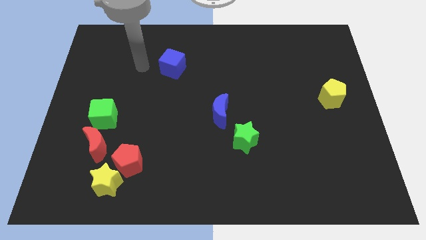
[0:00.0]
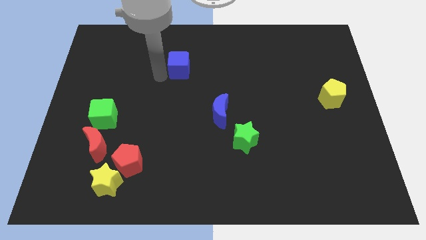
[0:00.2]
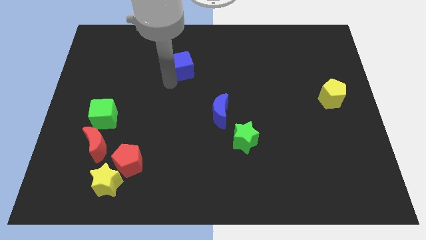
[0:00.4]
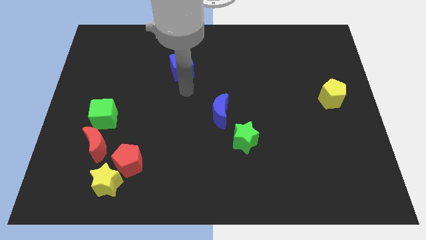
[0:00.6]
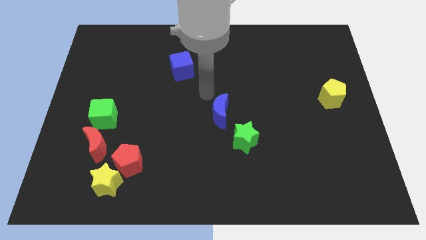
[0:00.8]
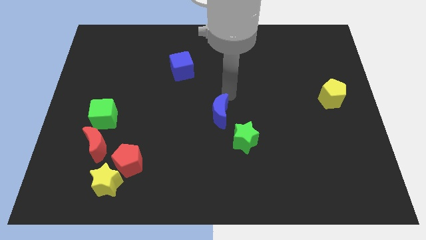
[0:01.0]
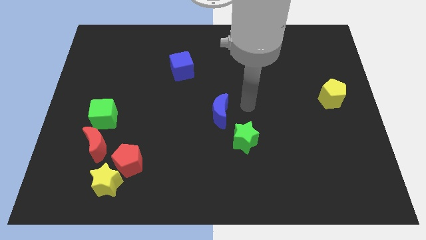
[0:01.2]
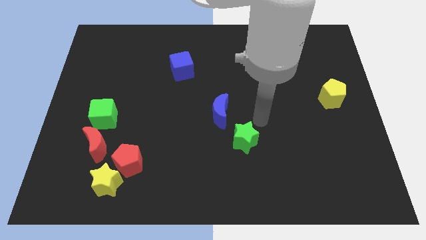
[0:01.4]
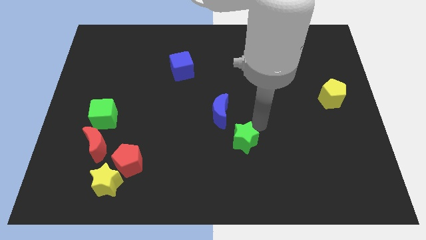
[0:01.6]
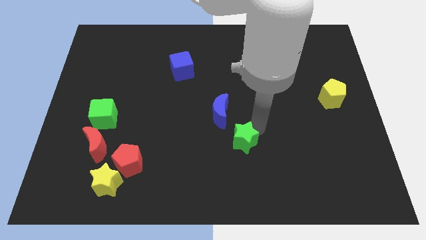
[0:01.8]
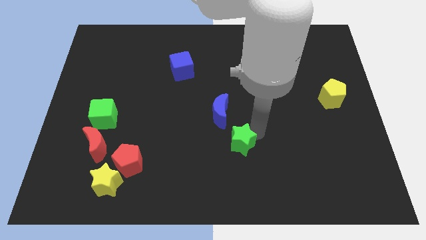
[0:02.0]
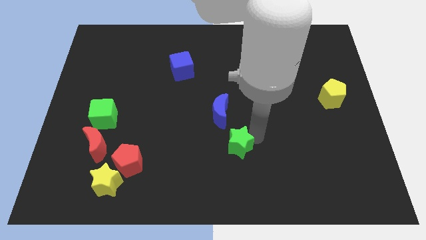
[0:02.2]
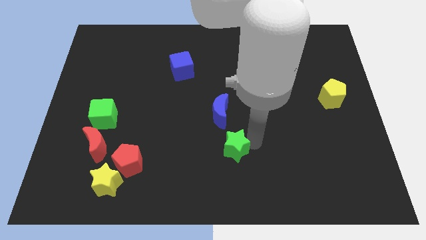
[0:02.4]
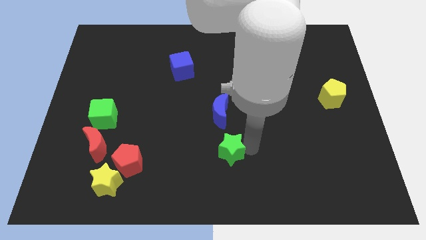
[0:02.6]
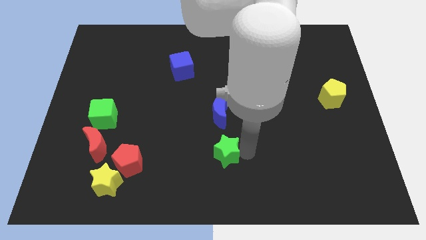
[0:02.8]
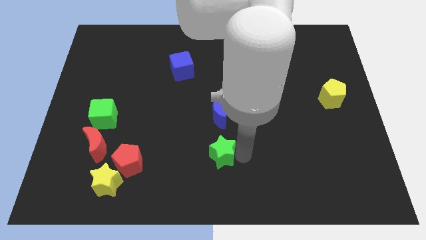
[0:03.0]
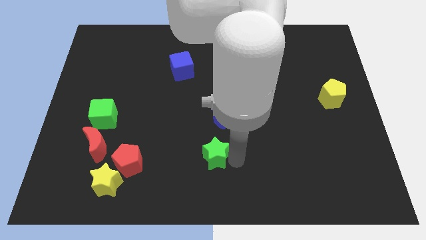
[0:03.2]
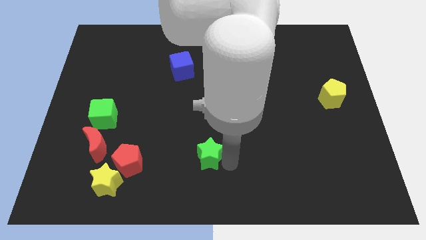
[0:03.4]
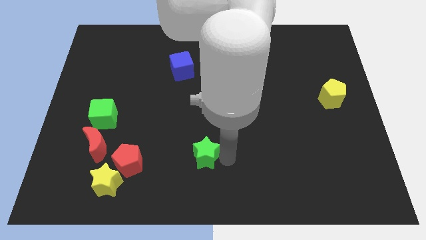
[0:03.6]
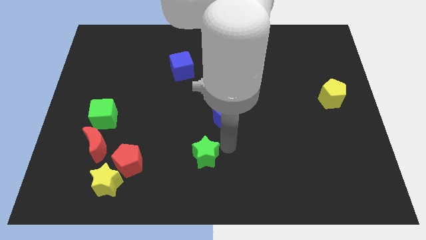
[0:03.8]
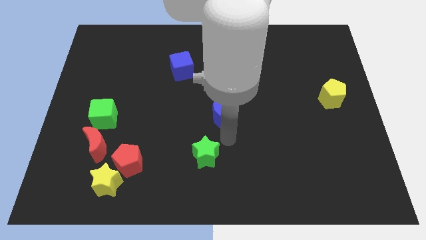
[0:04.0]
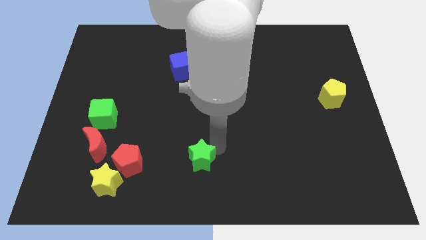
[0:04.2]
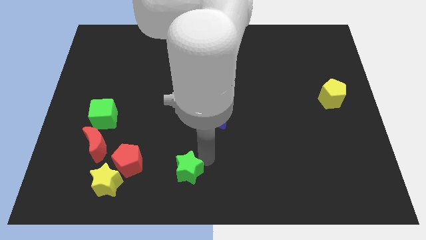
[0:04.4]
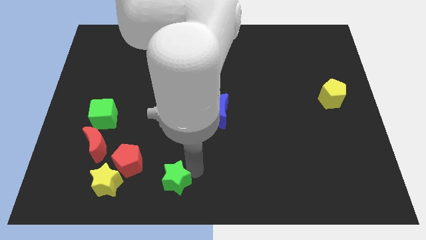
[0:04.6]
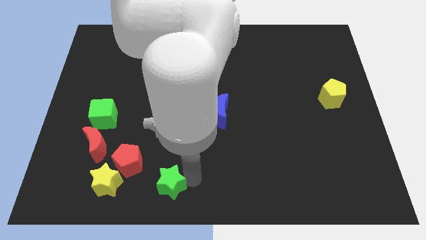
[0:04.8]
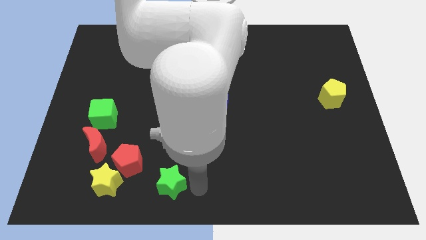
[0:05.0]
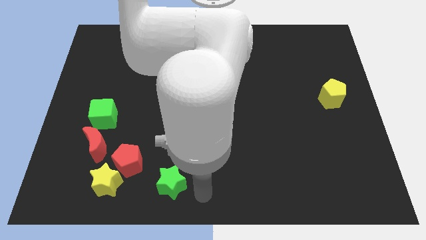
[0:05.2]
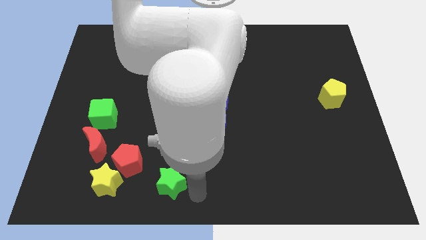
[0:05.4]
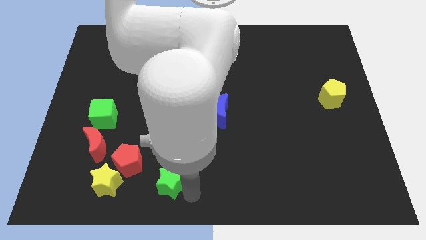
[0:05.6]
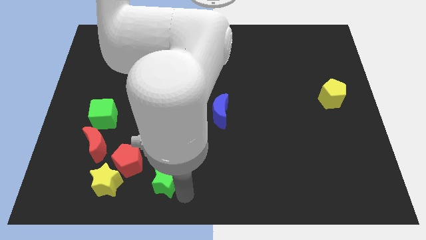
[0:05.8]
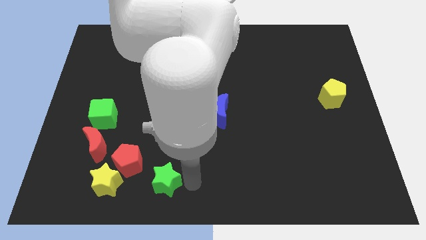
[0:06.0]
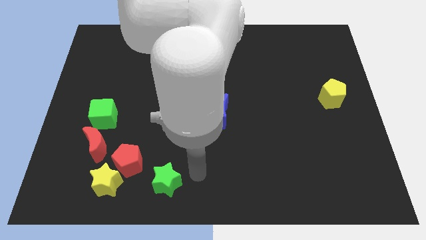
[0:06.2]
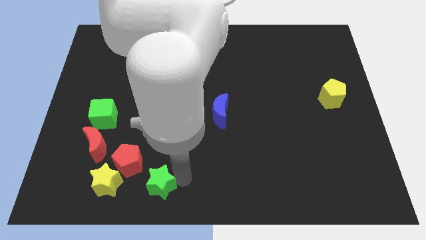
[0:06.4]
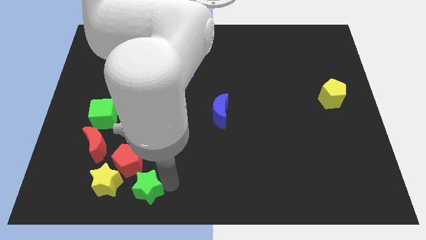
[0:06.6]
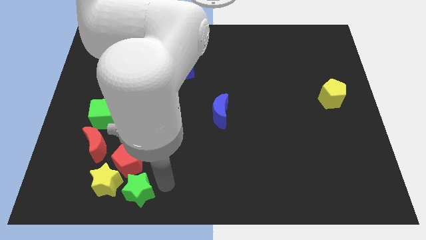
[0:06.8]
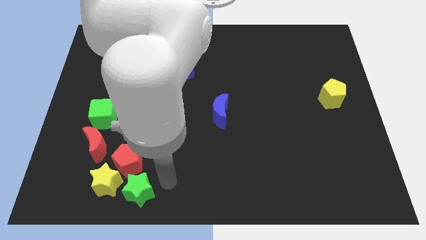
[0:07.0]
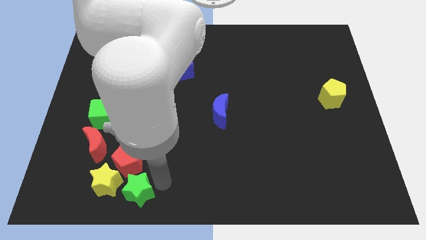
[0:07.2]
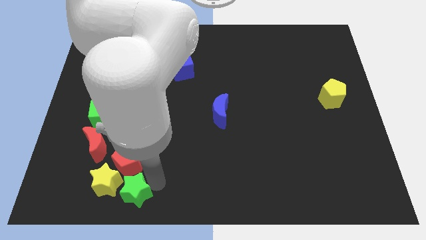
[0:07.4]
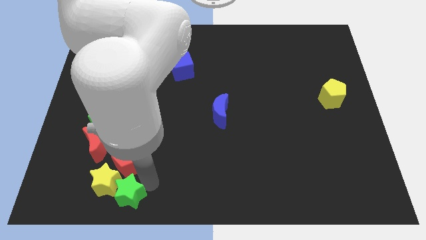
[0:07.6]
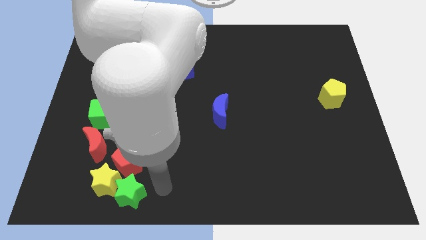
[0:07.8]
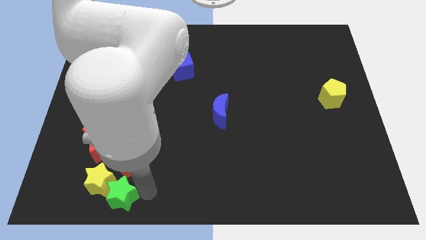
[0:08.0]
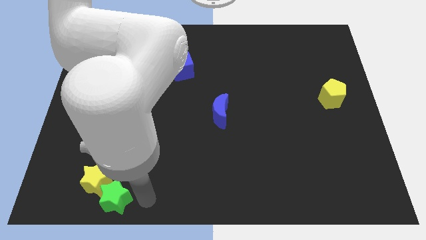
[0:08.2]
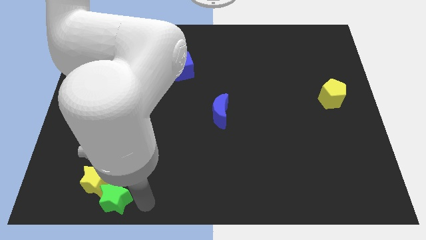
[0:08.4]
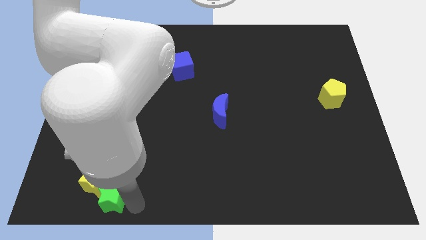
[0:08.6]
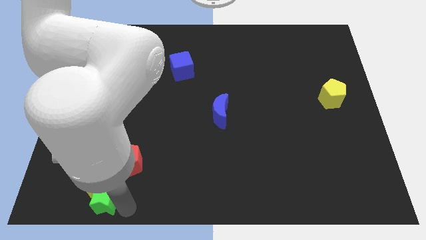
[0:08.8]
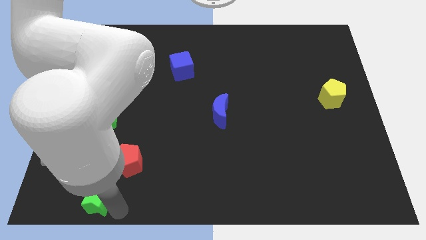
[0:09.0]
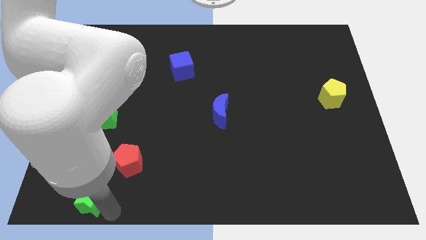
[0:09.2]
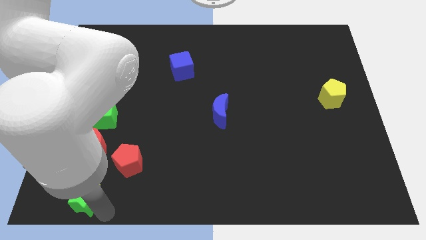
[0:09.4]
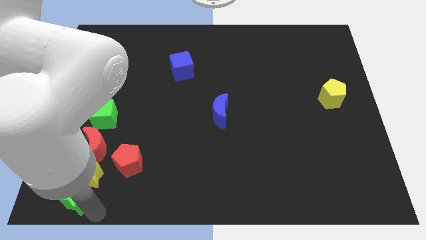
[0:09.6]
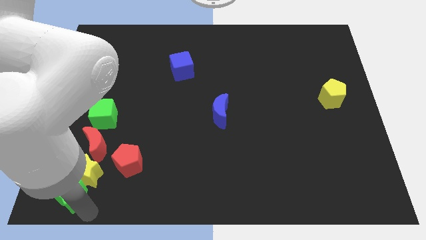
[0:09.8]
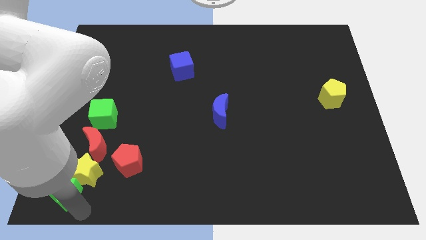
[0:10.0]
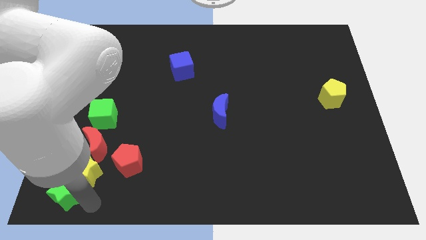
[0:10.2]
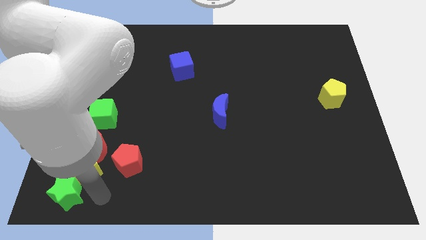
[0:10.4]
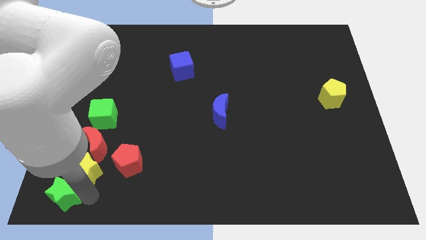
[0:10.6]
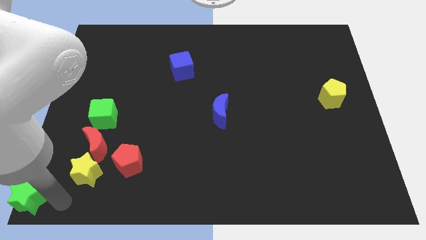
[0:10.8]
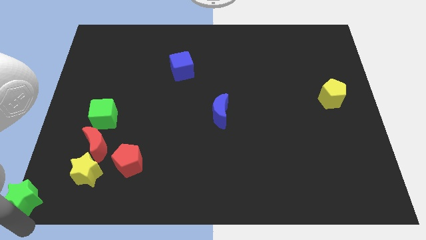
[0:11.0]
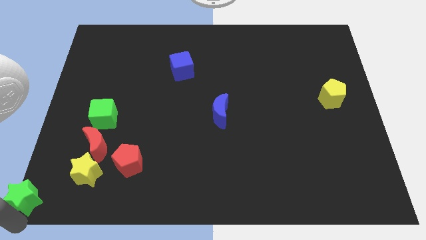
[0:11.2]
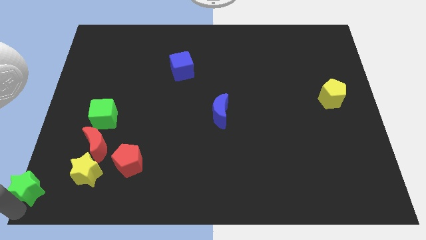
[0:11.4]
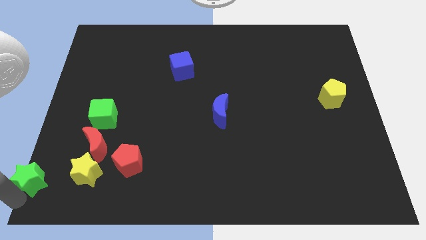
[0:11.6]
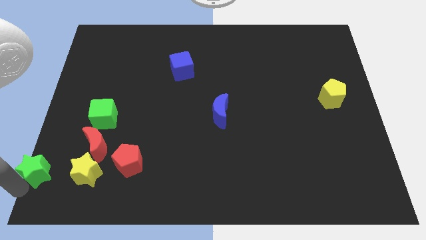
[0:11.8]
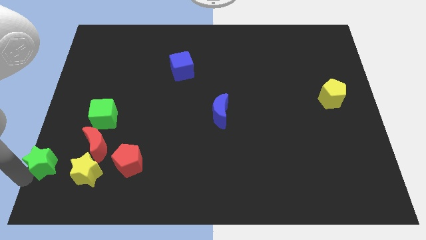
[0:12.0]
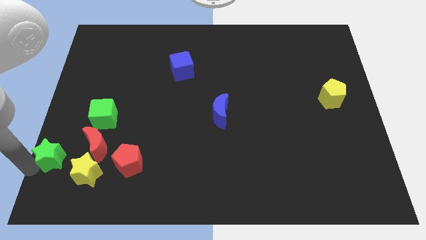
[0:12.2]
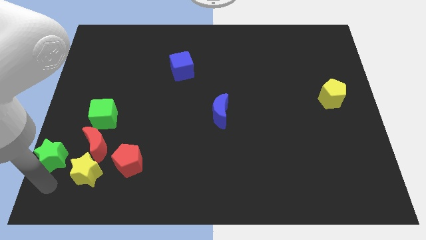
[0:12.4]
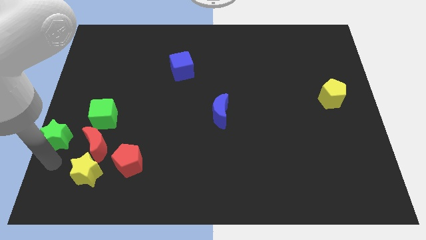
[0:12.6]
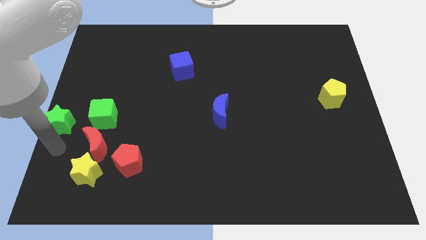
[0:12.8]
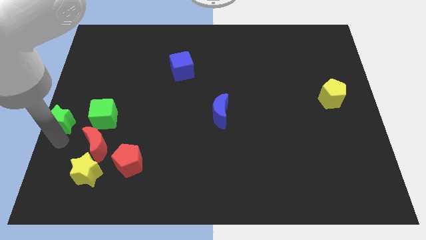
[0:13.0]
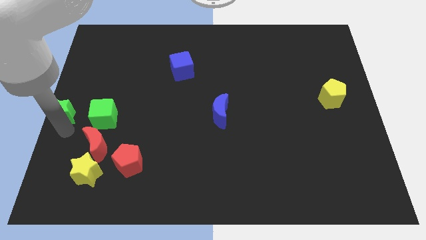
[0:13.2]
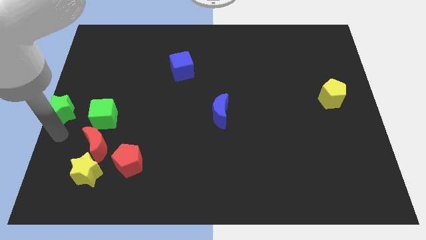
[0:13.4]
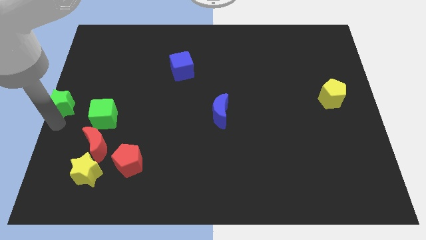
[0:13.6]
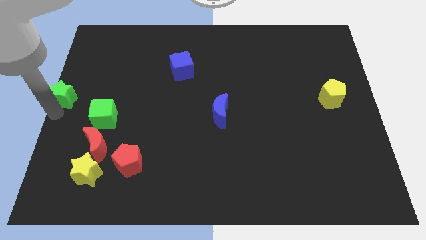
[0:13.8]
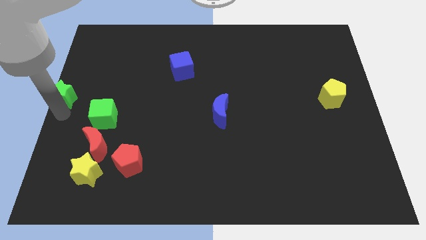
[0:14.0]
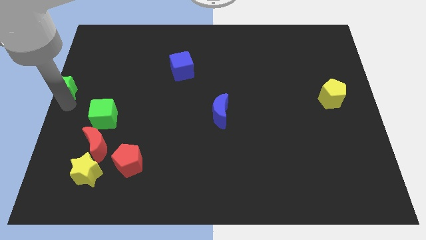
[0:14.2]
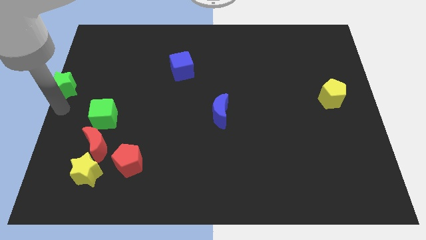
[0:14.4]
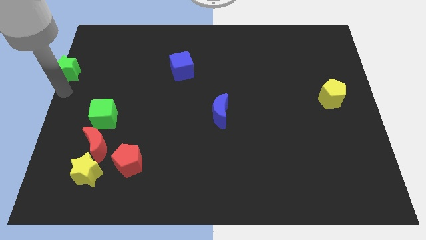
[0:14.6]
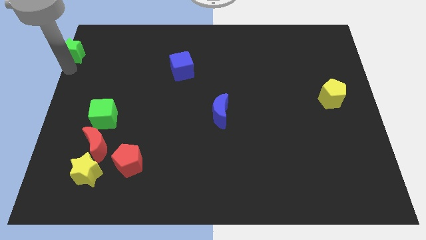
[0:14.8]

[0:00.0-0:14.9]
move the green star to the upper left corner
